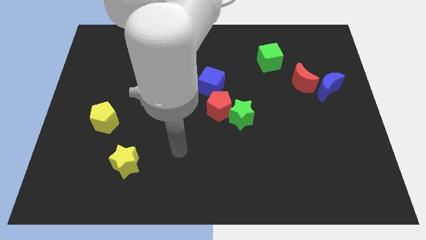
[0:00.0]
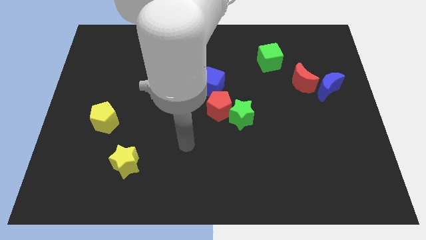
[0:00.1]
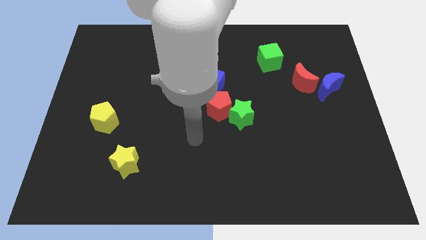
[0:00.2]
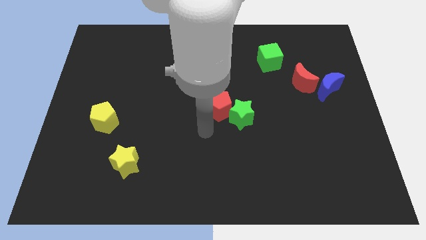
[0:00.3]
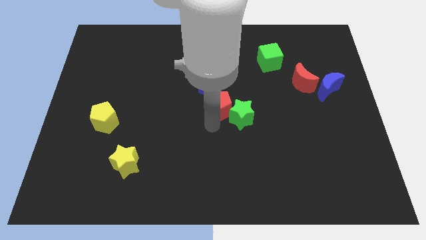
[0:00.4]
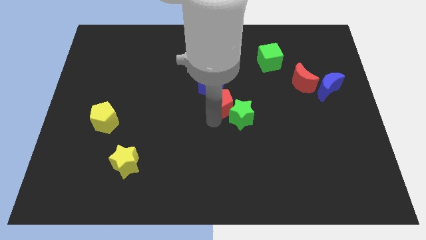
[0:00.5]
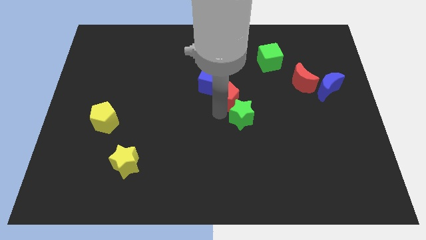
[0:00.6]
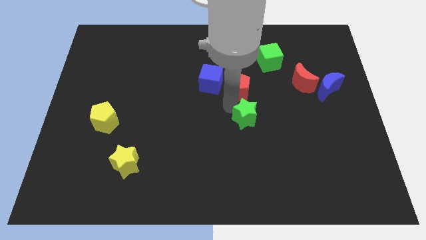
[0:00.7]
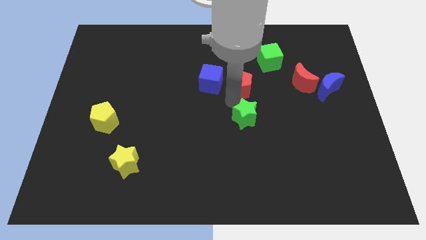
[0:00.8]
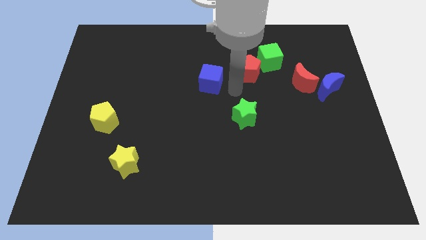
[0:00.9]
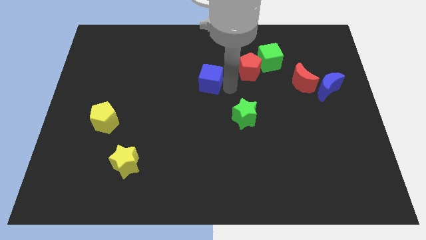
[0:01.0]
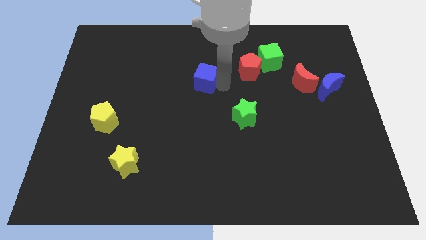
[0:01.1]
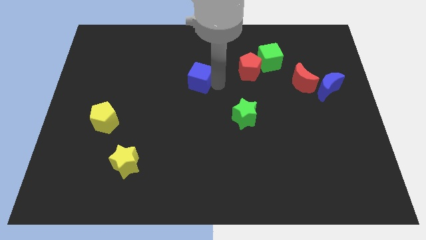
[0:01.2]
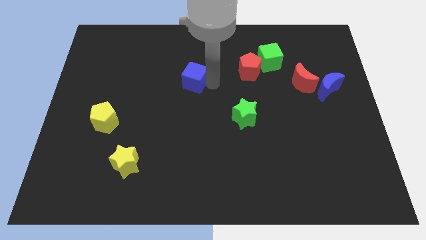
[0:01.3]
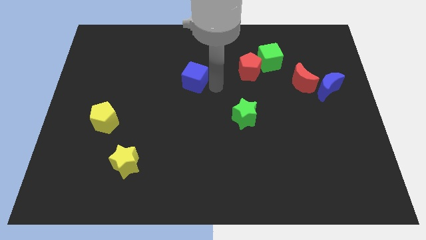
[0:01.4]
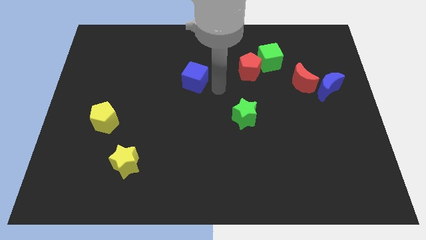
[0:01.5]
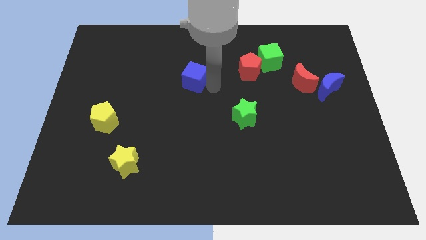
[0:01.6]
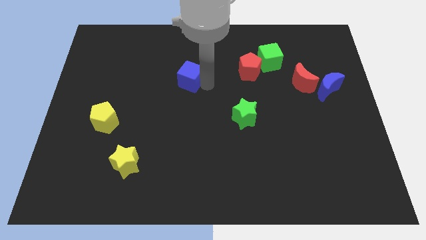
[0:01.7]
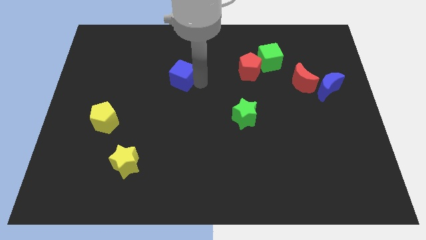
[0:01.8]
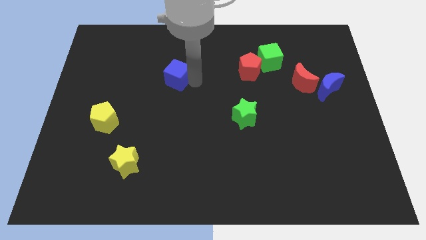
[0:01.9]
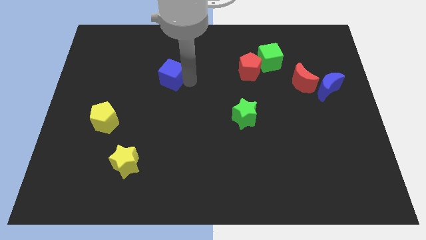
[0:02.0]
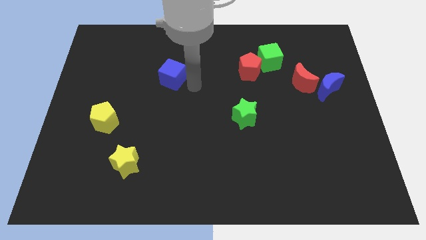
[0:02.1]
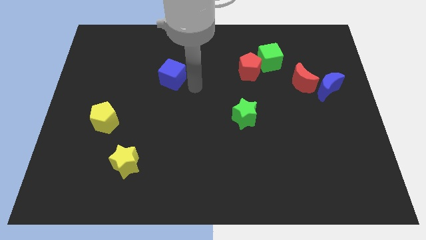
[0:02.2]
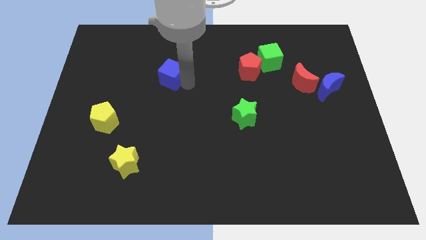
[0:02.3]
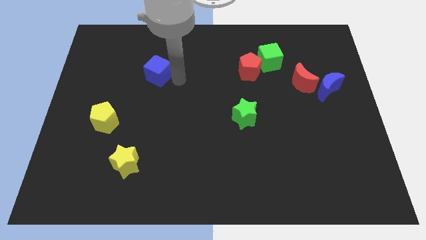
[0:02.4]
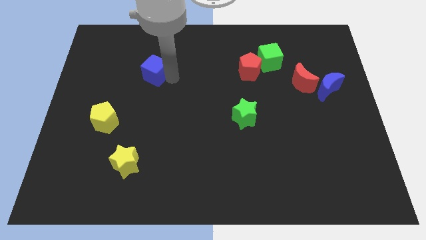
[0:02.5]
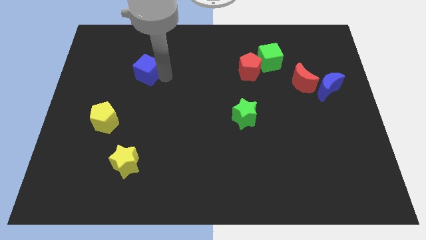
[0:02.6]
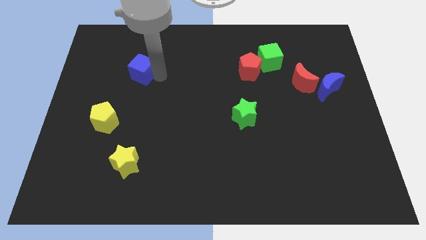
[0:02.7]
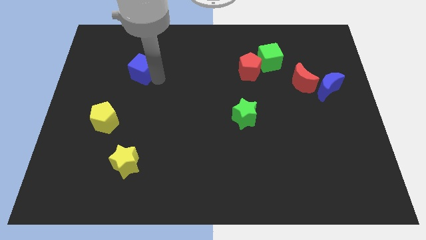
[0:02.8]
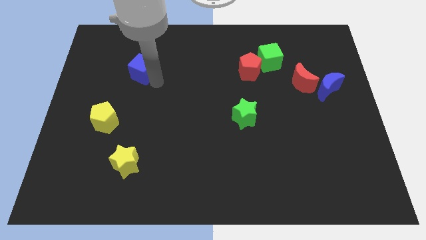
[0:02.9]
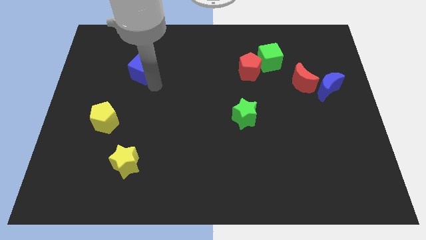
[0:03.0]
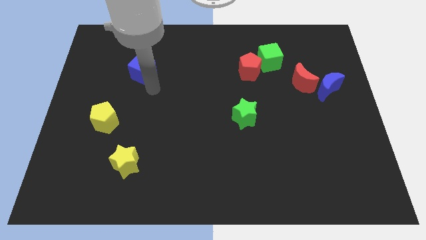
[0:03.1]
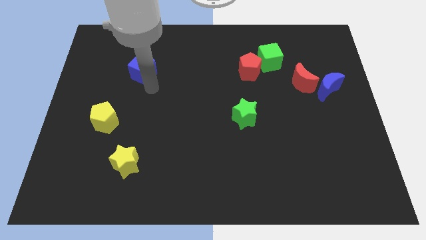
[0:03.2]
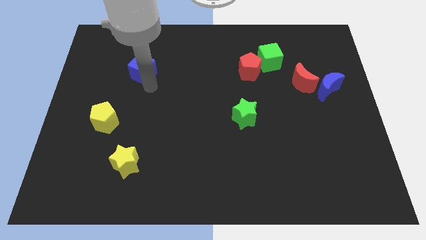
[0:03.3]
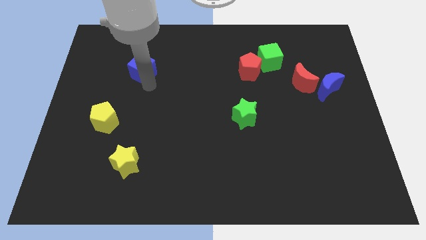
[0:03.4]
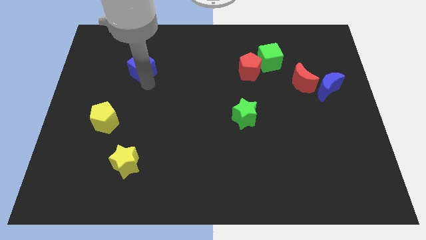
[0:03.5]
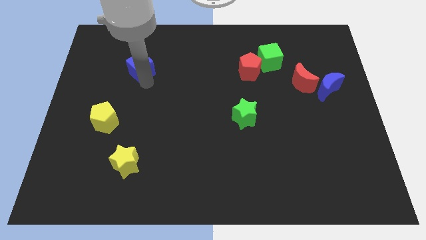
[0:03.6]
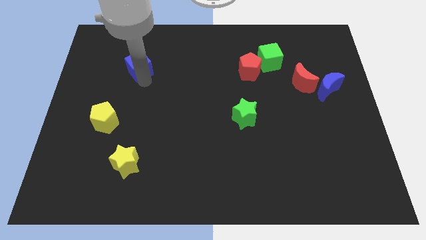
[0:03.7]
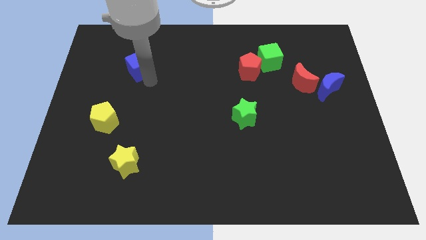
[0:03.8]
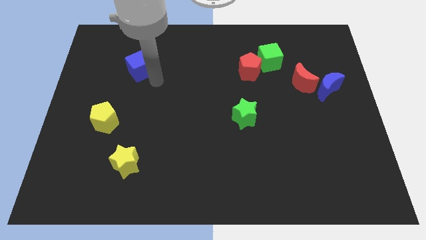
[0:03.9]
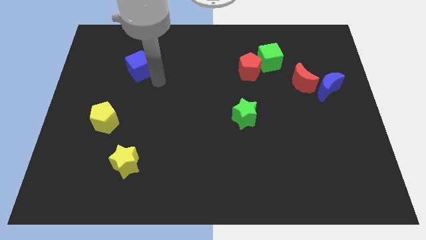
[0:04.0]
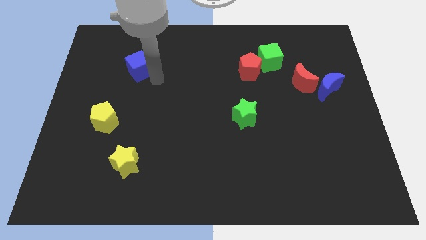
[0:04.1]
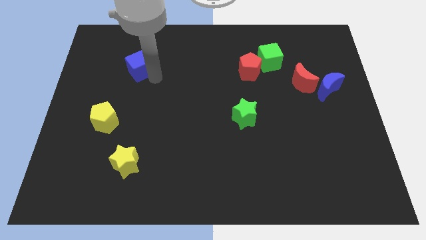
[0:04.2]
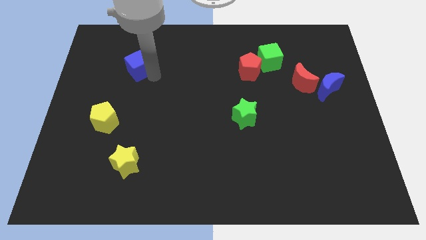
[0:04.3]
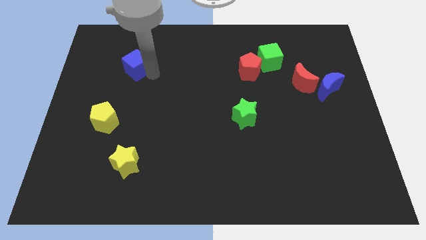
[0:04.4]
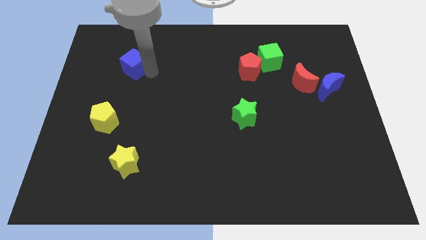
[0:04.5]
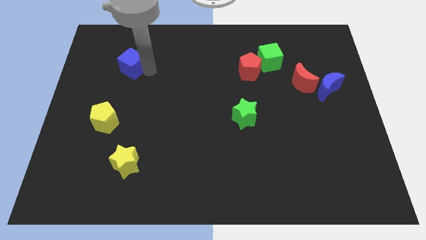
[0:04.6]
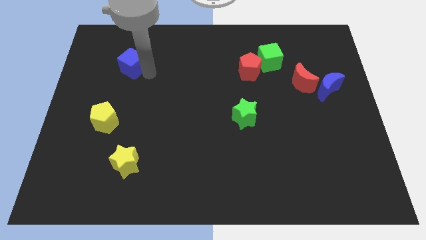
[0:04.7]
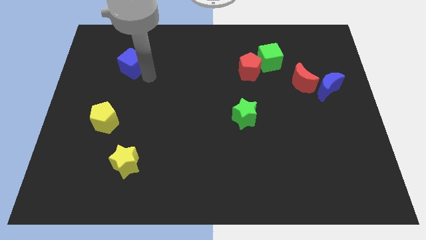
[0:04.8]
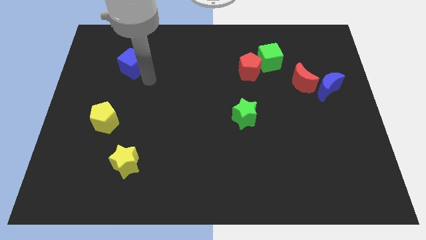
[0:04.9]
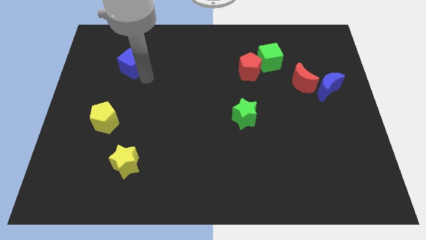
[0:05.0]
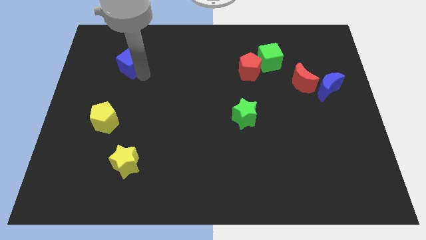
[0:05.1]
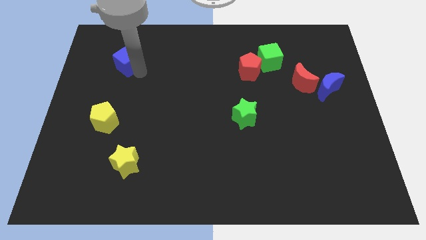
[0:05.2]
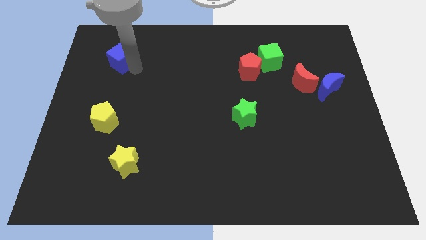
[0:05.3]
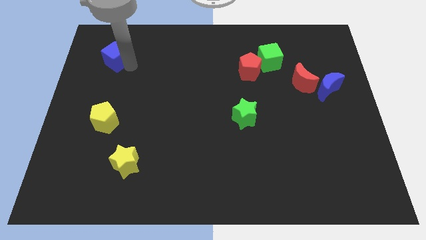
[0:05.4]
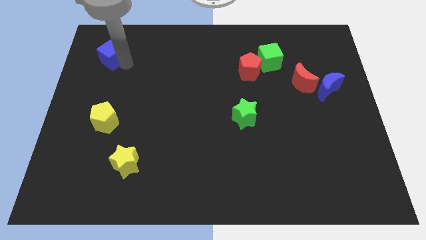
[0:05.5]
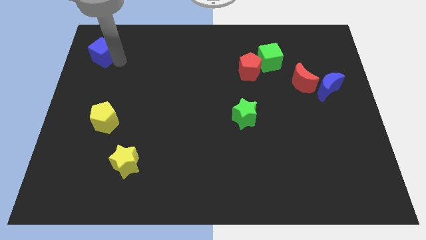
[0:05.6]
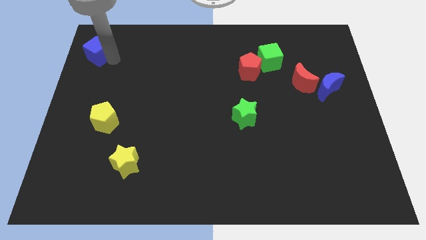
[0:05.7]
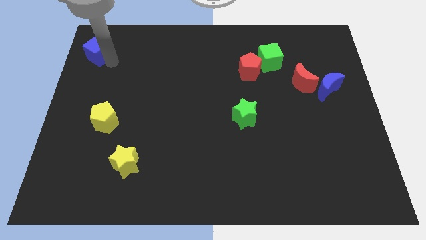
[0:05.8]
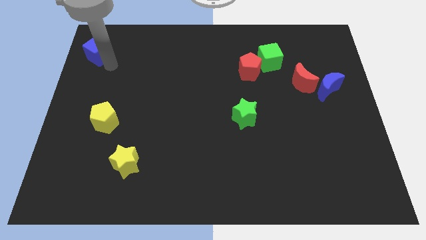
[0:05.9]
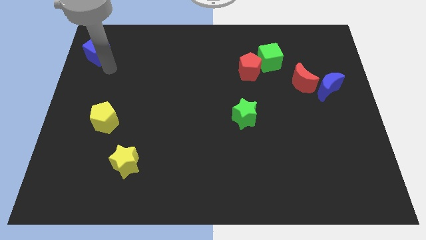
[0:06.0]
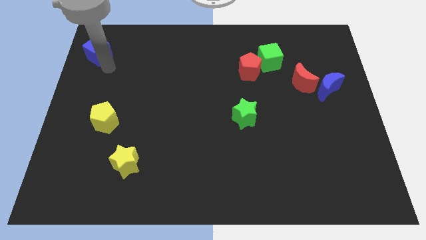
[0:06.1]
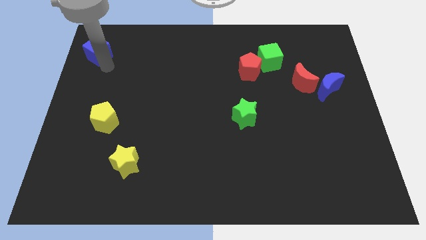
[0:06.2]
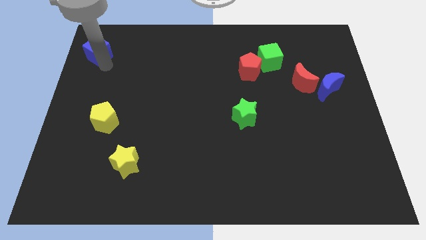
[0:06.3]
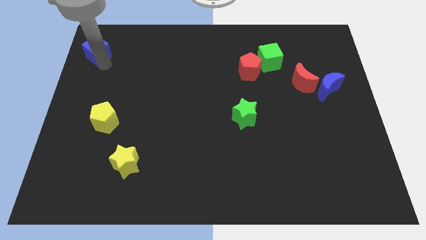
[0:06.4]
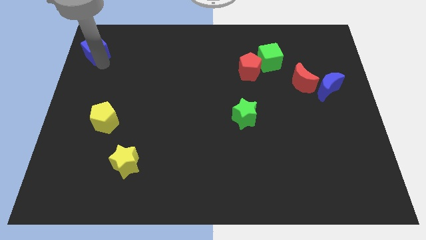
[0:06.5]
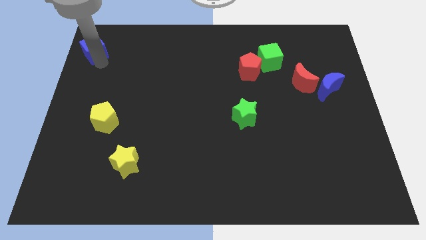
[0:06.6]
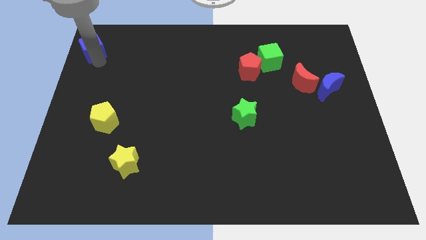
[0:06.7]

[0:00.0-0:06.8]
slide the blue cube to the top left corner
